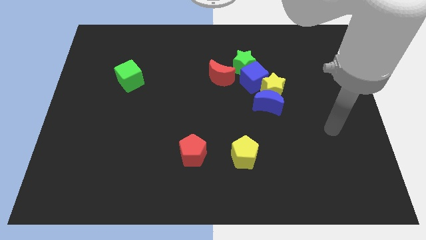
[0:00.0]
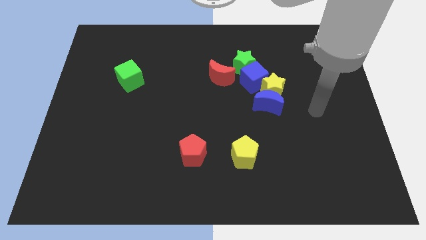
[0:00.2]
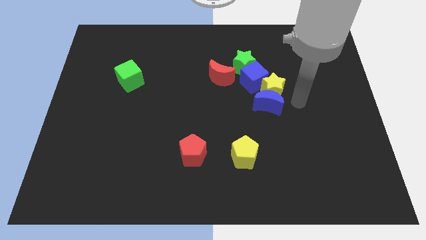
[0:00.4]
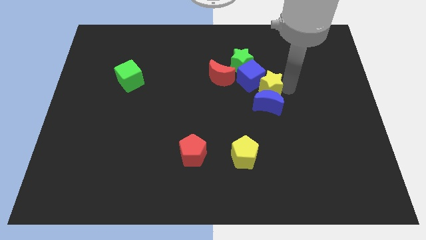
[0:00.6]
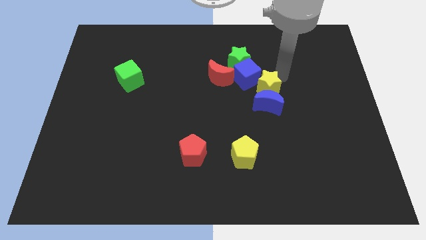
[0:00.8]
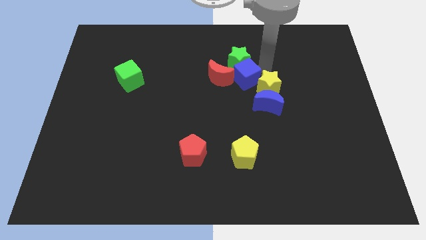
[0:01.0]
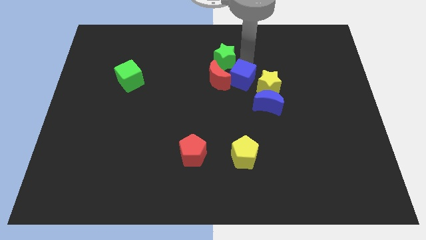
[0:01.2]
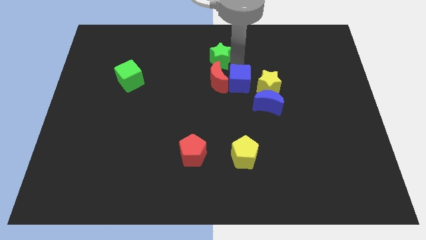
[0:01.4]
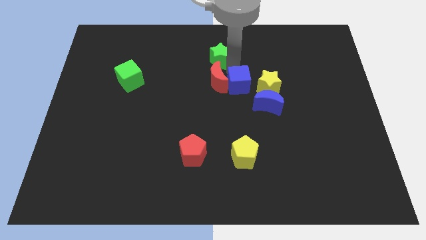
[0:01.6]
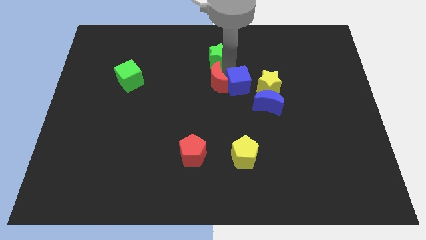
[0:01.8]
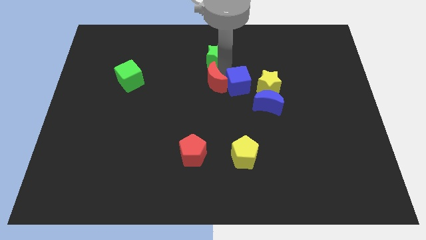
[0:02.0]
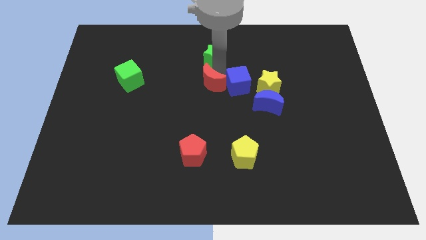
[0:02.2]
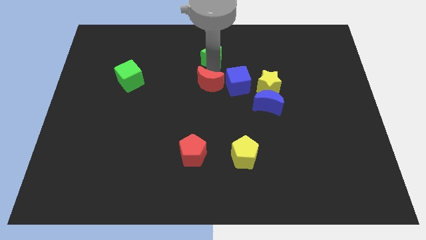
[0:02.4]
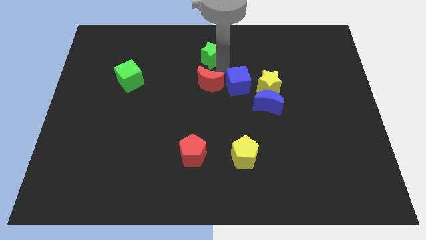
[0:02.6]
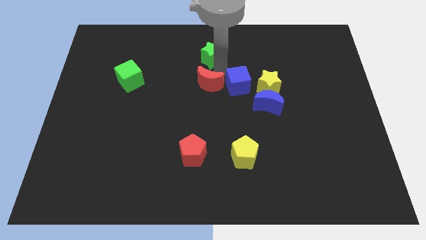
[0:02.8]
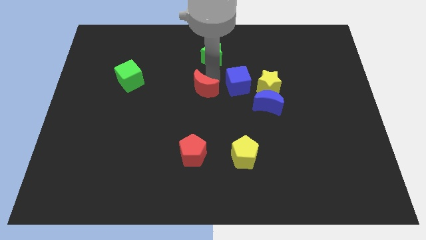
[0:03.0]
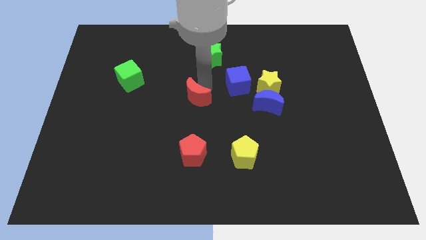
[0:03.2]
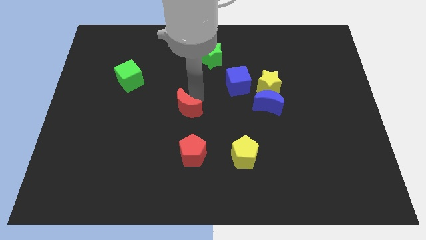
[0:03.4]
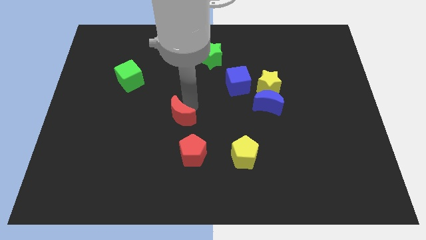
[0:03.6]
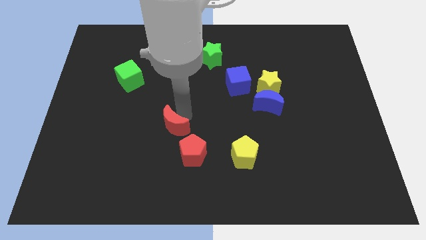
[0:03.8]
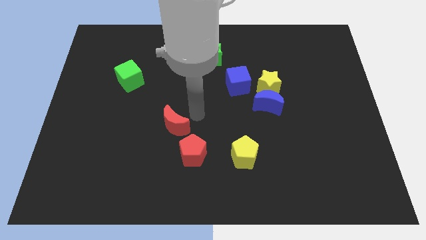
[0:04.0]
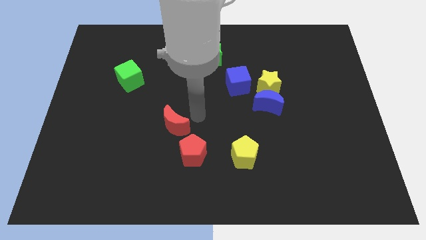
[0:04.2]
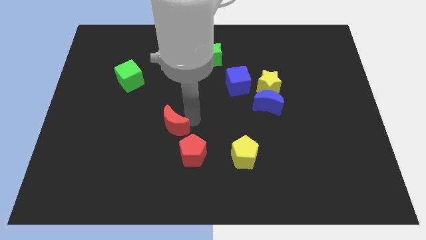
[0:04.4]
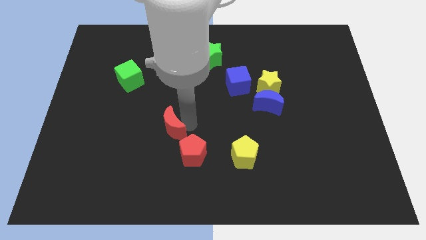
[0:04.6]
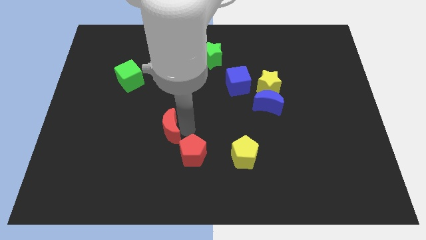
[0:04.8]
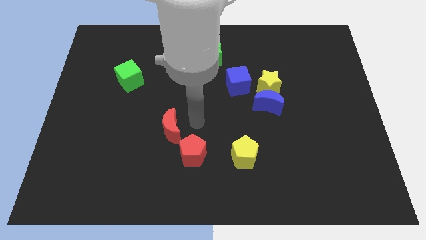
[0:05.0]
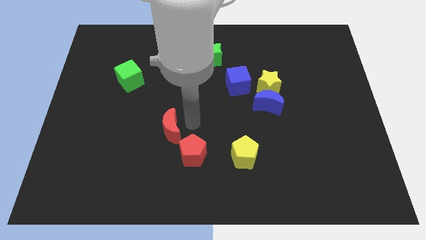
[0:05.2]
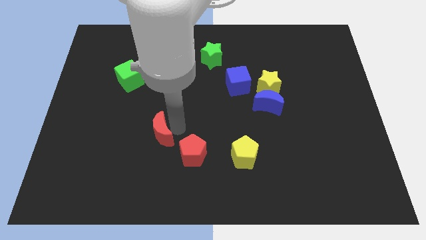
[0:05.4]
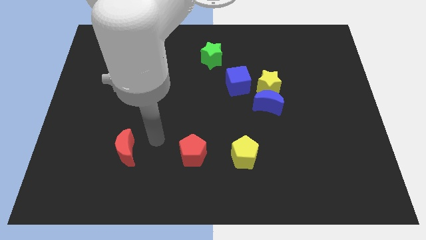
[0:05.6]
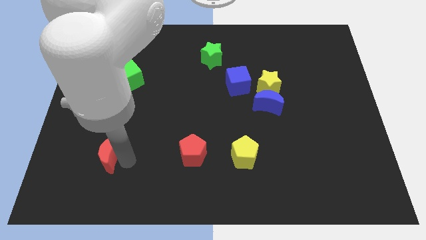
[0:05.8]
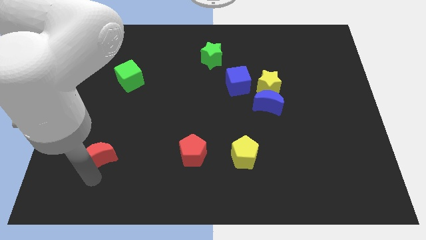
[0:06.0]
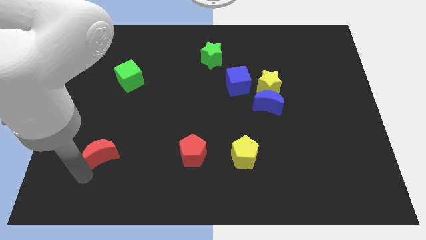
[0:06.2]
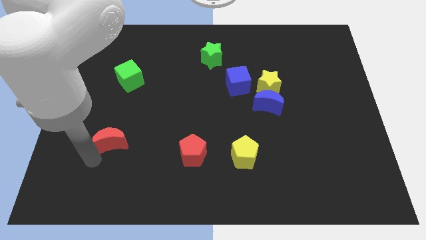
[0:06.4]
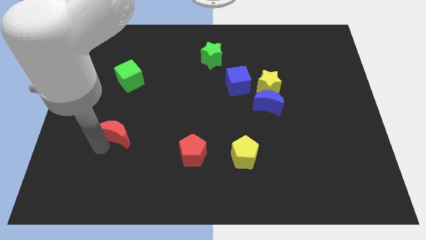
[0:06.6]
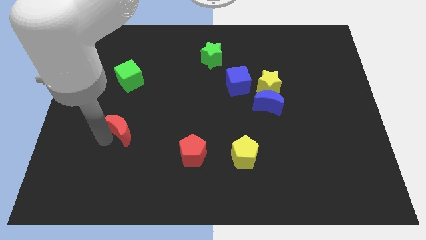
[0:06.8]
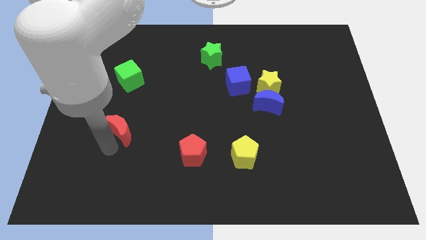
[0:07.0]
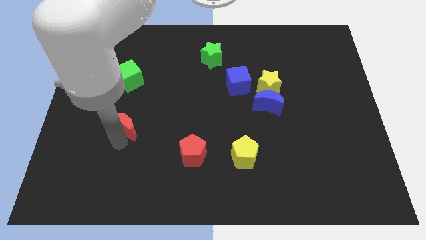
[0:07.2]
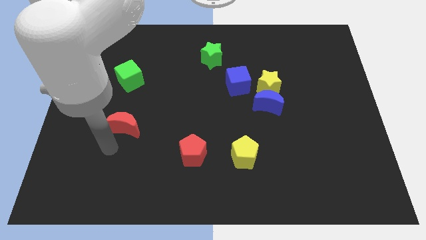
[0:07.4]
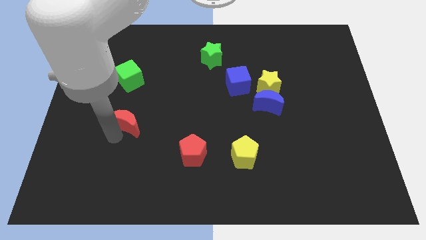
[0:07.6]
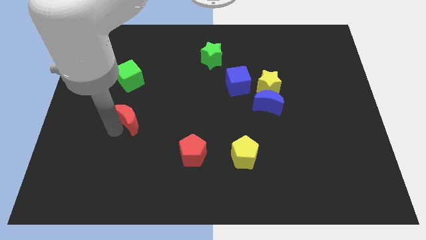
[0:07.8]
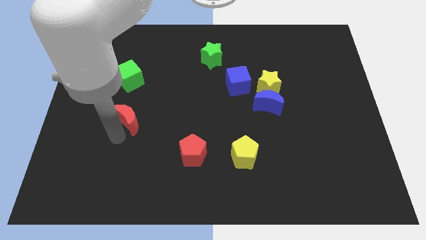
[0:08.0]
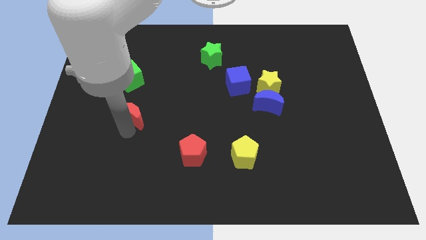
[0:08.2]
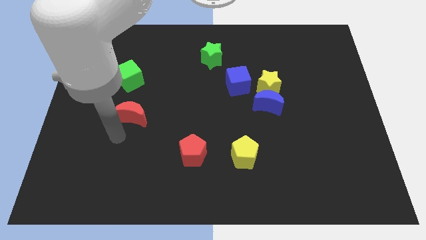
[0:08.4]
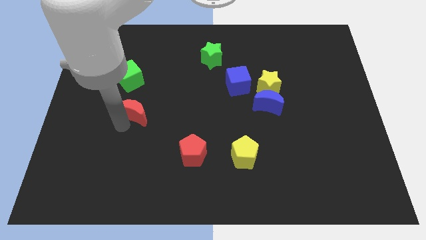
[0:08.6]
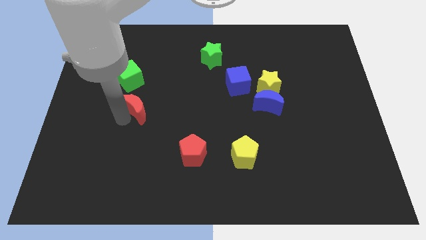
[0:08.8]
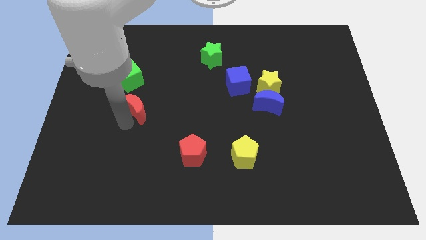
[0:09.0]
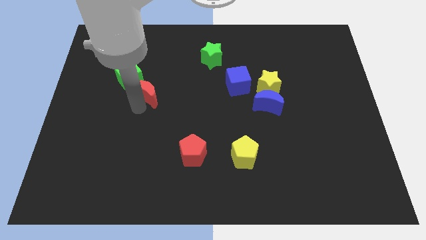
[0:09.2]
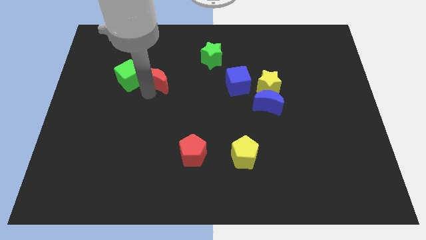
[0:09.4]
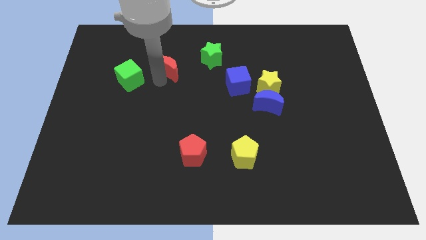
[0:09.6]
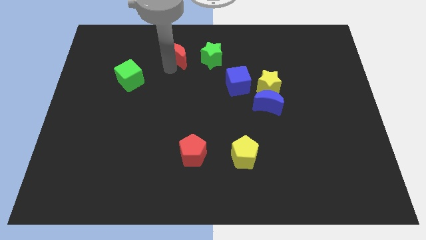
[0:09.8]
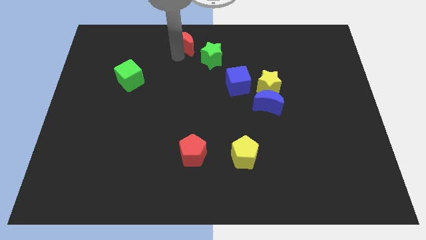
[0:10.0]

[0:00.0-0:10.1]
put the red moon to the top side

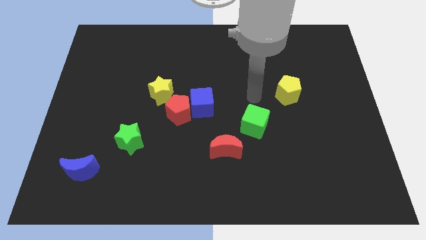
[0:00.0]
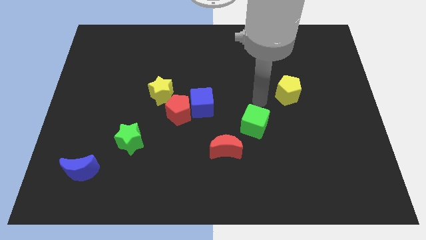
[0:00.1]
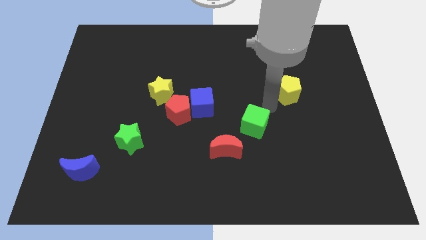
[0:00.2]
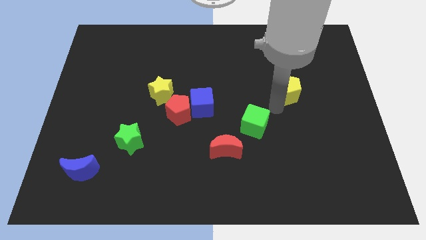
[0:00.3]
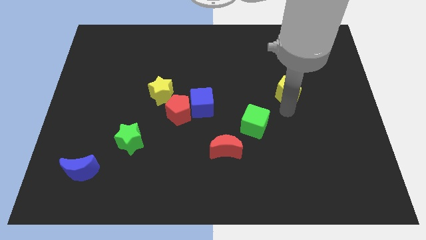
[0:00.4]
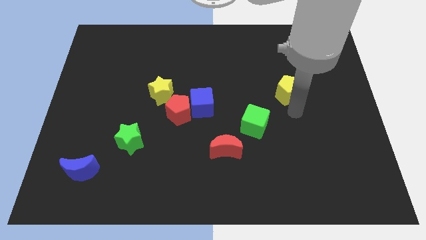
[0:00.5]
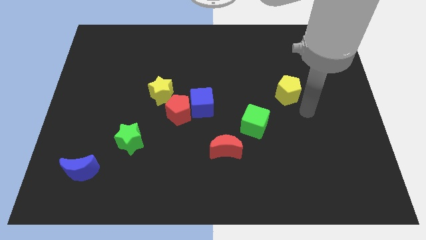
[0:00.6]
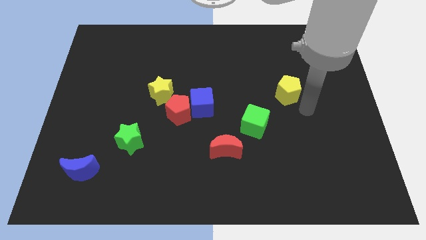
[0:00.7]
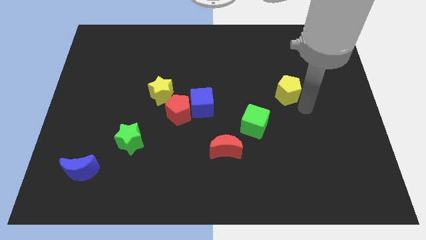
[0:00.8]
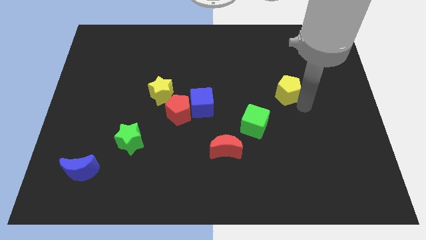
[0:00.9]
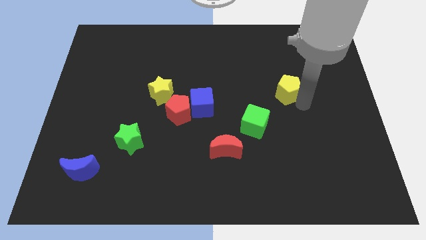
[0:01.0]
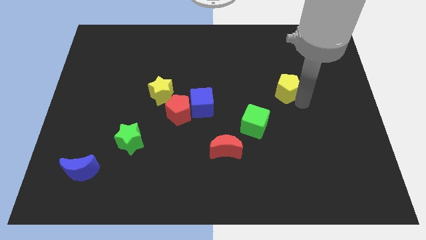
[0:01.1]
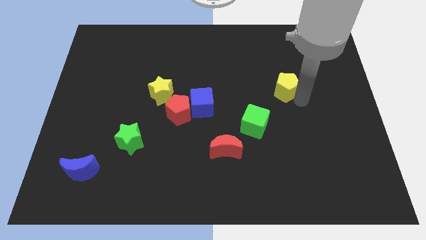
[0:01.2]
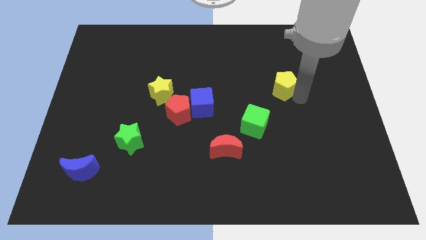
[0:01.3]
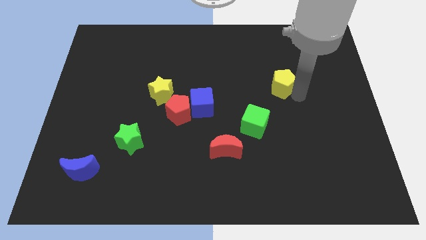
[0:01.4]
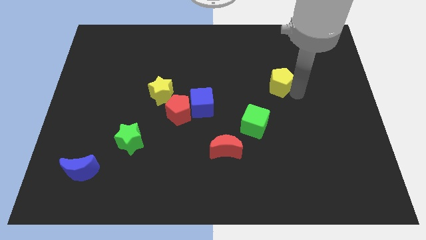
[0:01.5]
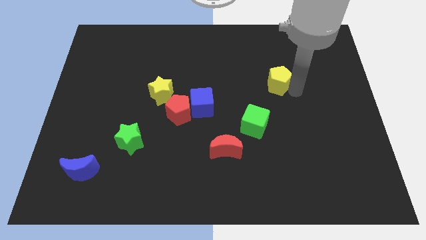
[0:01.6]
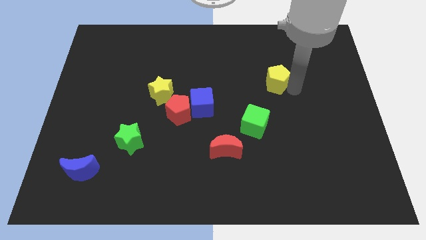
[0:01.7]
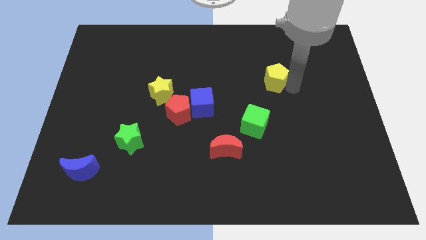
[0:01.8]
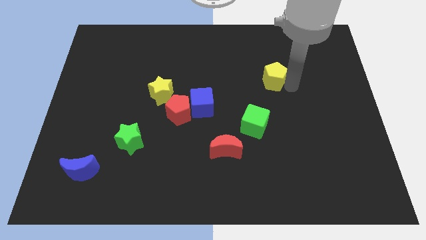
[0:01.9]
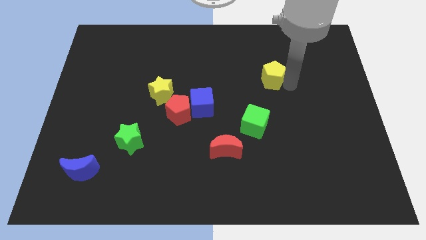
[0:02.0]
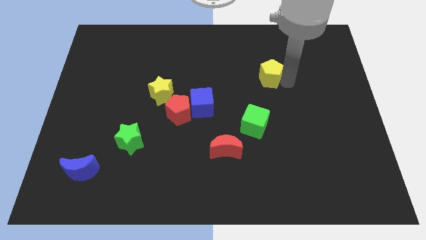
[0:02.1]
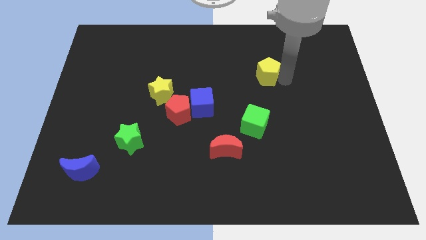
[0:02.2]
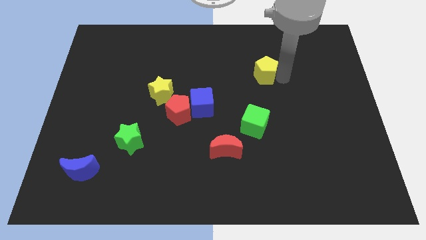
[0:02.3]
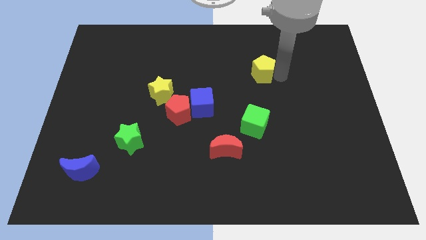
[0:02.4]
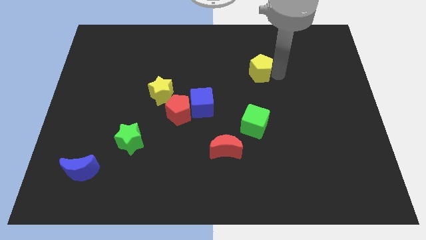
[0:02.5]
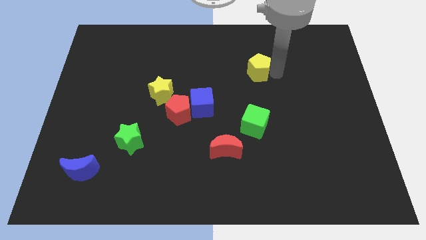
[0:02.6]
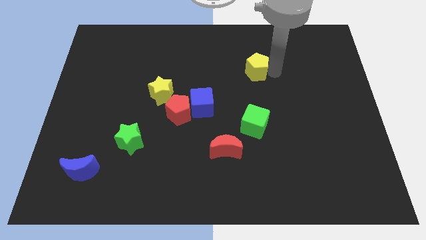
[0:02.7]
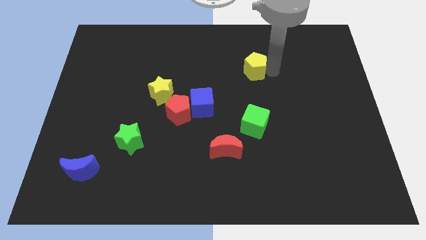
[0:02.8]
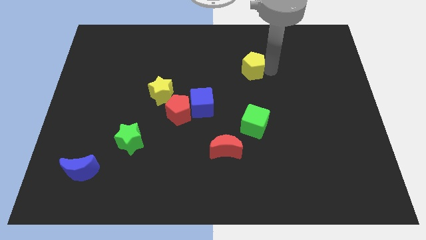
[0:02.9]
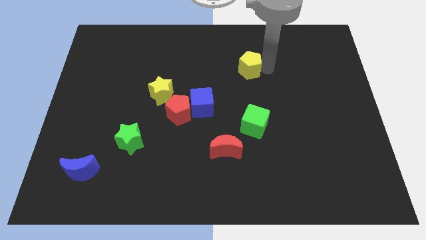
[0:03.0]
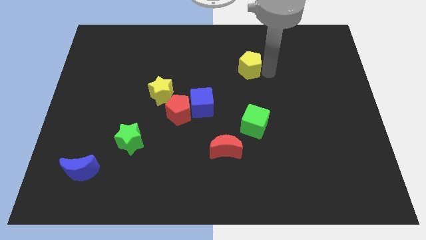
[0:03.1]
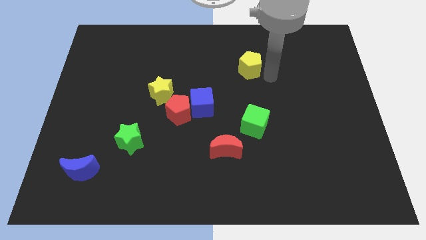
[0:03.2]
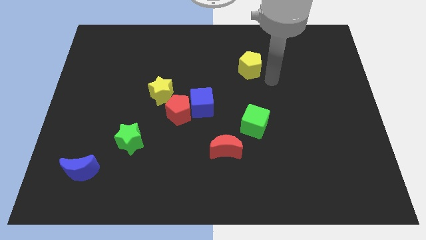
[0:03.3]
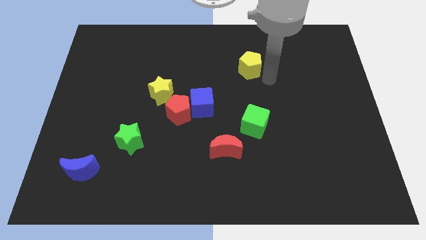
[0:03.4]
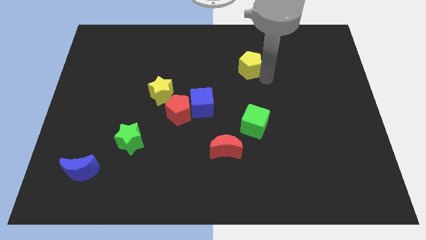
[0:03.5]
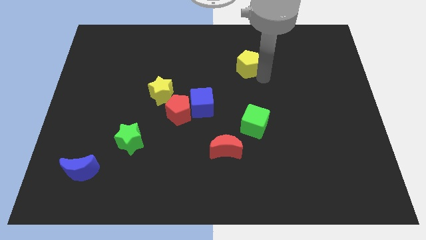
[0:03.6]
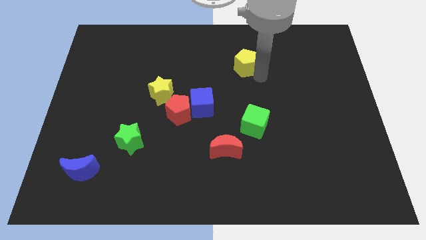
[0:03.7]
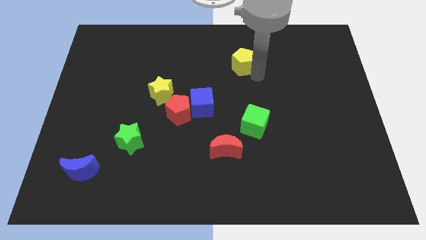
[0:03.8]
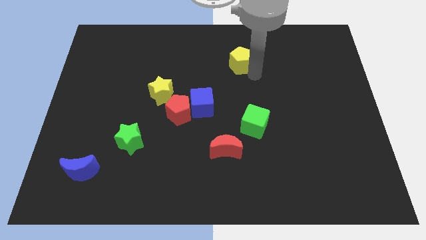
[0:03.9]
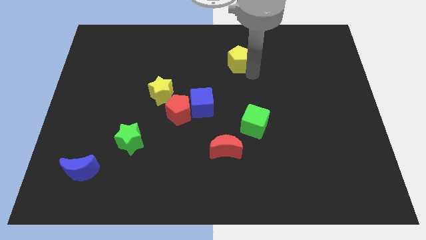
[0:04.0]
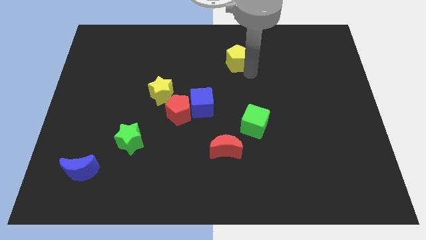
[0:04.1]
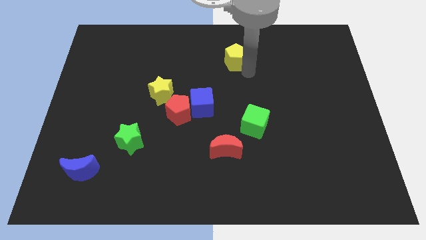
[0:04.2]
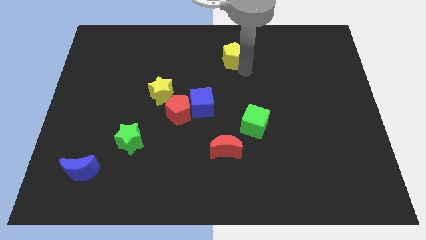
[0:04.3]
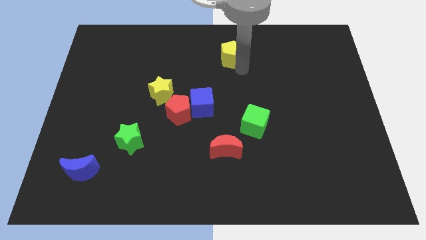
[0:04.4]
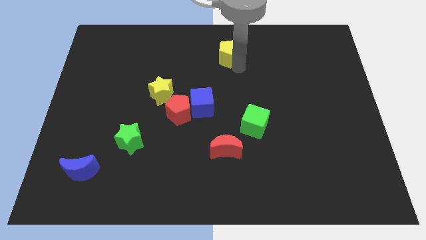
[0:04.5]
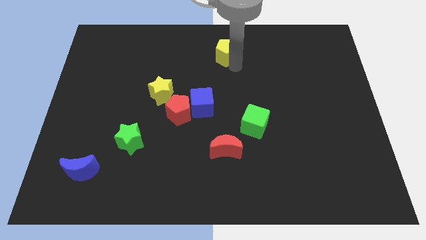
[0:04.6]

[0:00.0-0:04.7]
put the yellow pentagon to the top side
